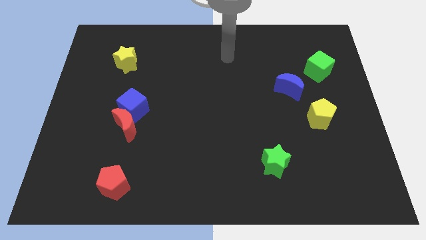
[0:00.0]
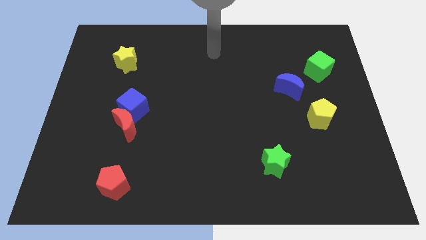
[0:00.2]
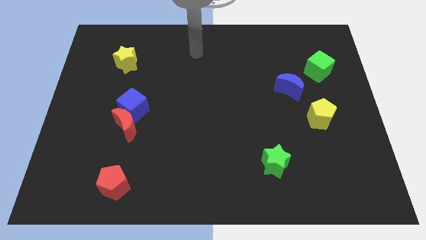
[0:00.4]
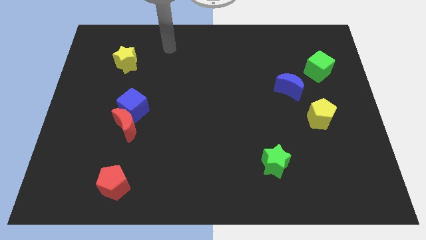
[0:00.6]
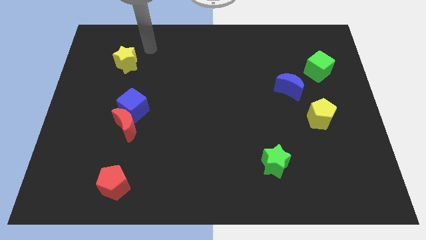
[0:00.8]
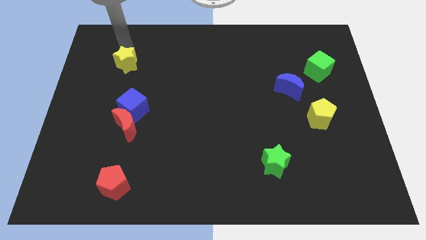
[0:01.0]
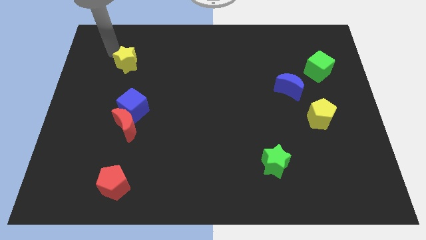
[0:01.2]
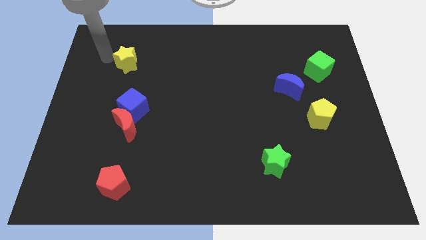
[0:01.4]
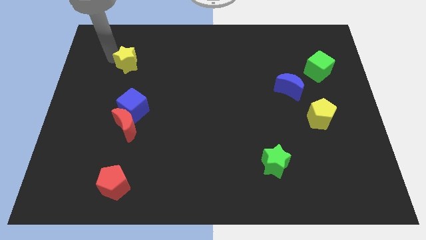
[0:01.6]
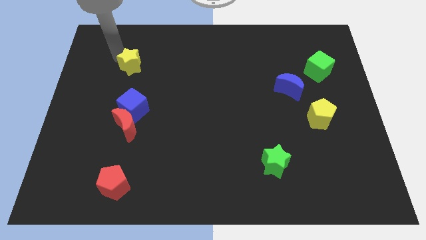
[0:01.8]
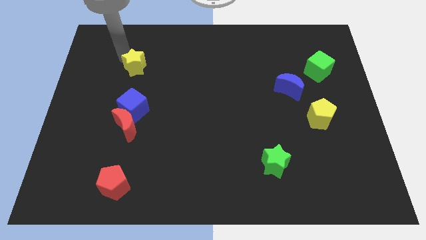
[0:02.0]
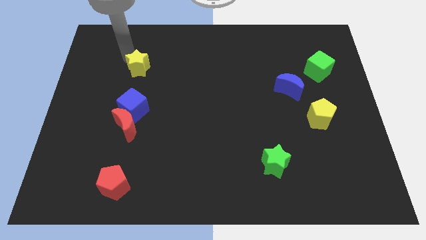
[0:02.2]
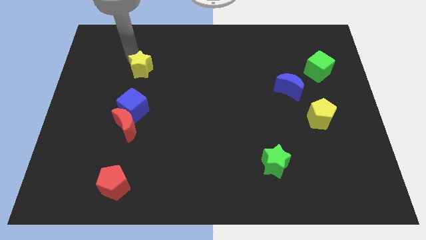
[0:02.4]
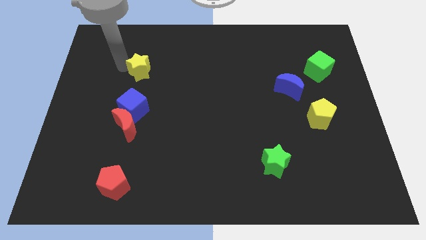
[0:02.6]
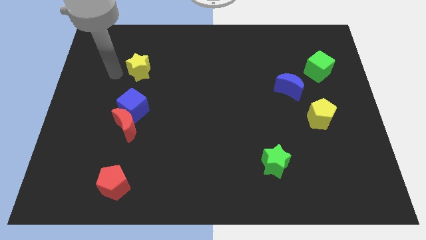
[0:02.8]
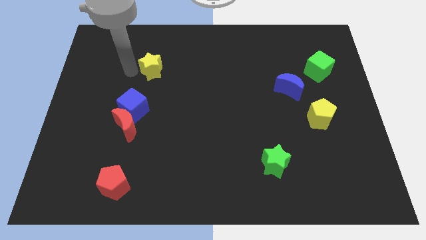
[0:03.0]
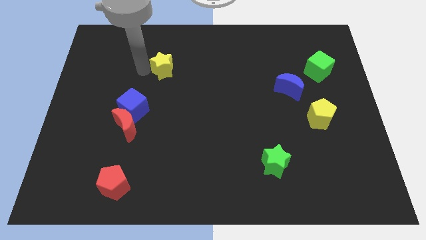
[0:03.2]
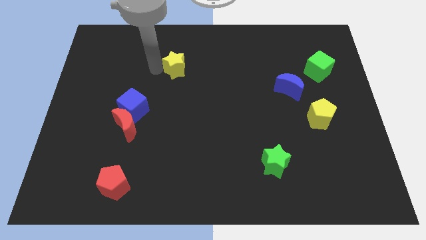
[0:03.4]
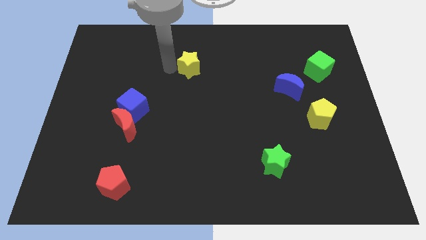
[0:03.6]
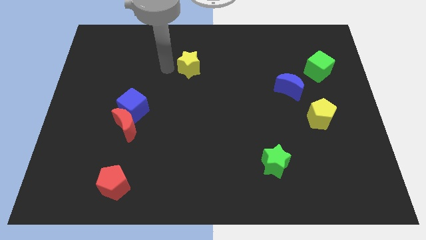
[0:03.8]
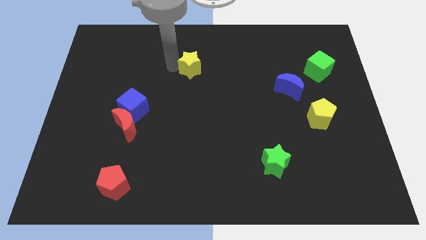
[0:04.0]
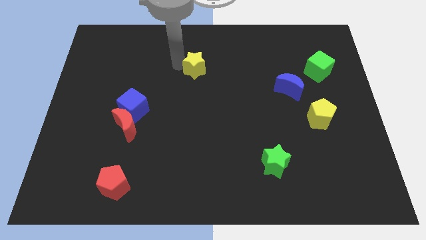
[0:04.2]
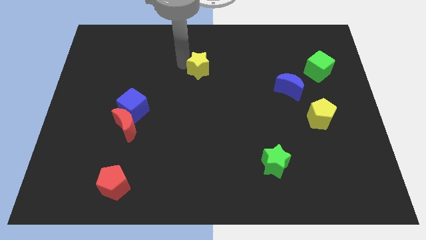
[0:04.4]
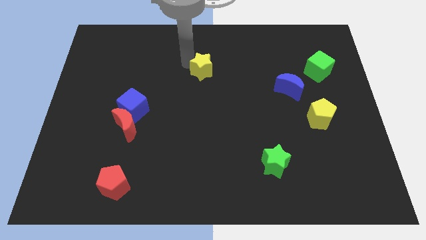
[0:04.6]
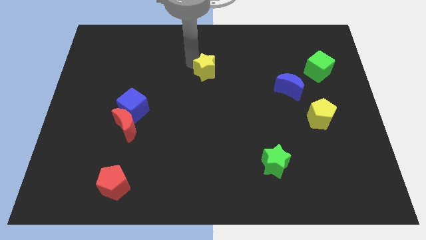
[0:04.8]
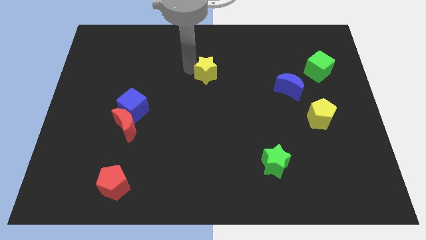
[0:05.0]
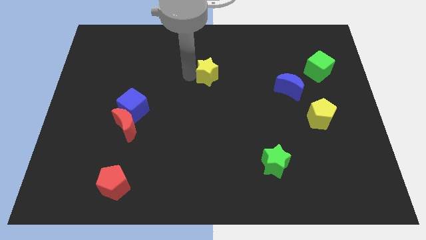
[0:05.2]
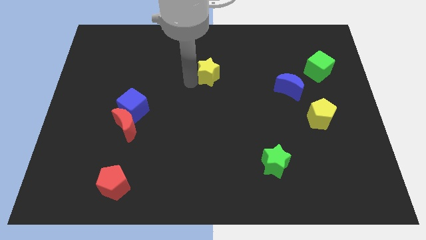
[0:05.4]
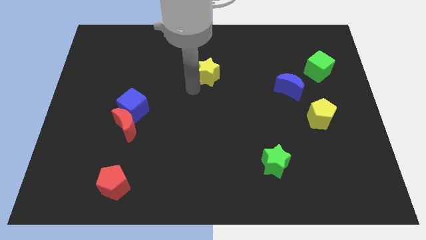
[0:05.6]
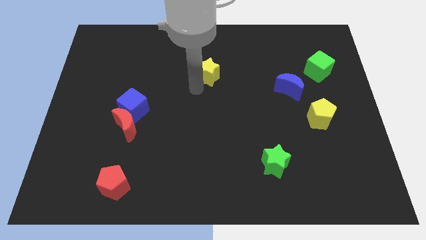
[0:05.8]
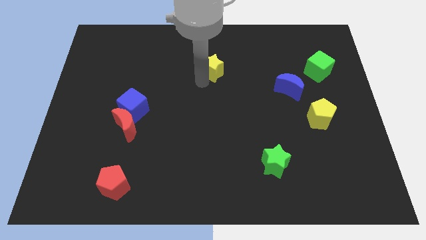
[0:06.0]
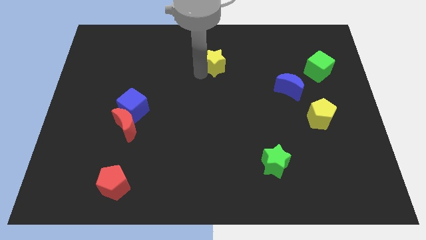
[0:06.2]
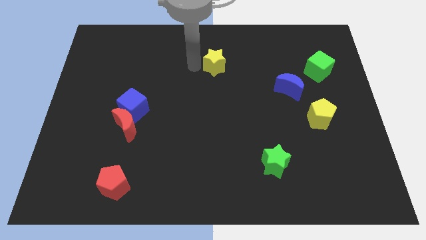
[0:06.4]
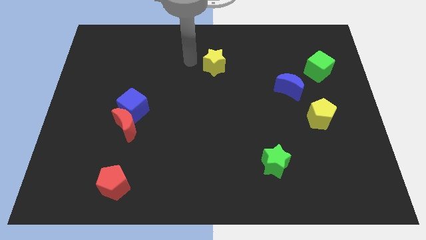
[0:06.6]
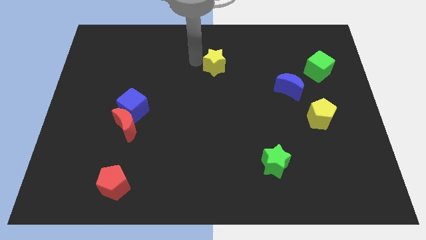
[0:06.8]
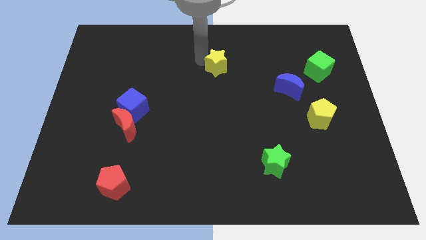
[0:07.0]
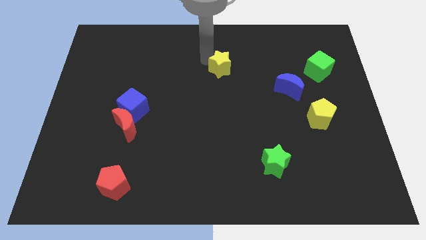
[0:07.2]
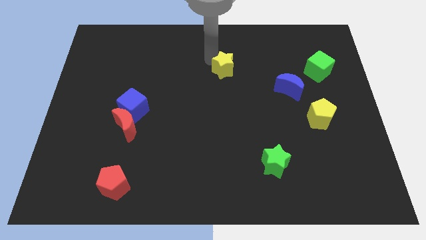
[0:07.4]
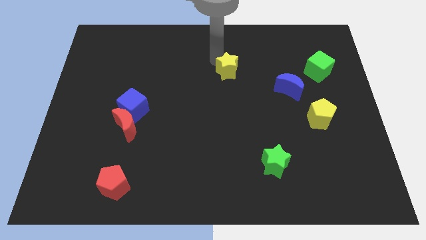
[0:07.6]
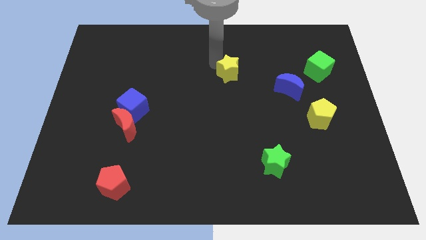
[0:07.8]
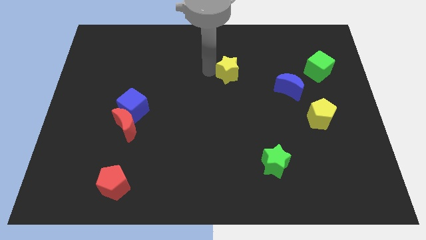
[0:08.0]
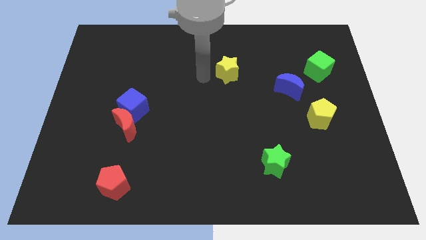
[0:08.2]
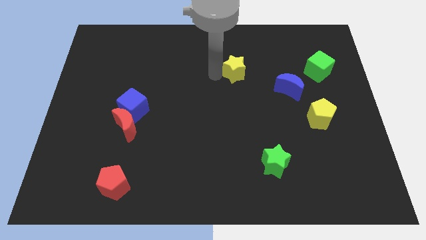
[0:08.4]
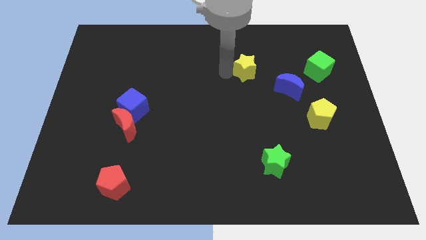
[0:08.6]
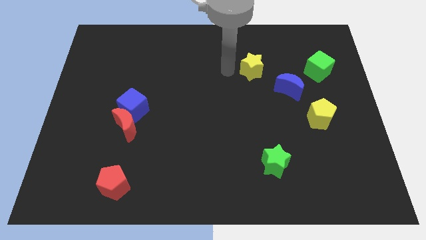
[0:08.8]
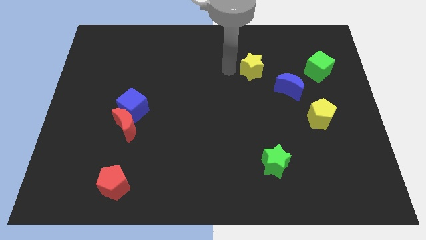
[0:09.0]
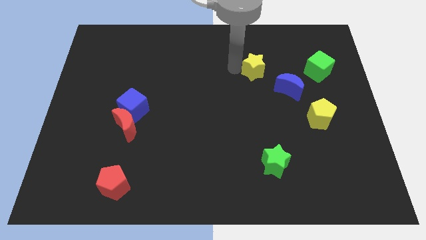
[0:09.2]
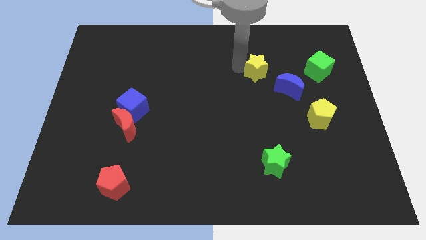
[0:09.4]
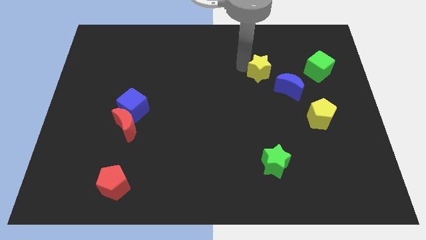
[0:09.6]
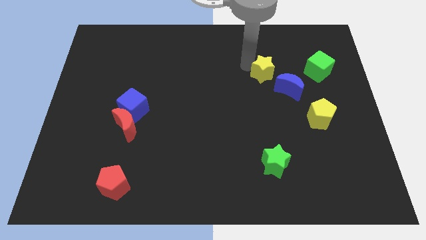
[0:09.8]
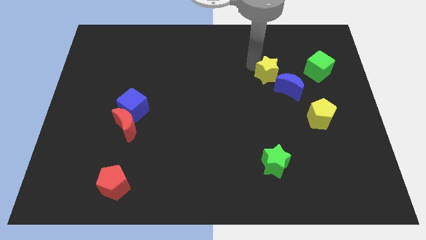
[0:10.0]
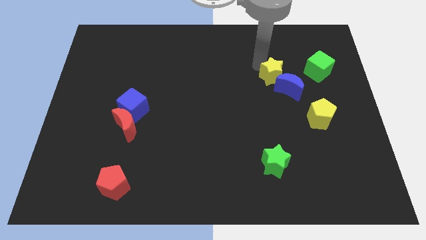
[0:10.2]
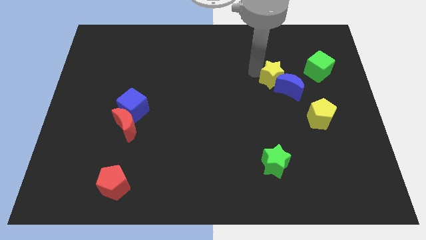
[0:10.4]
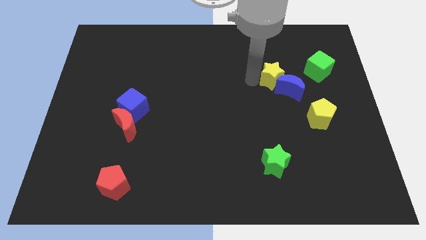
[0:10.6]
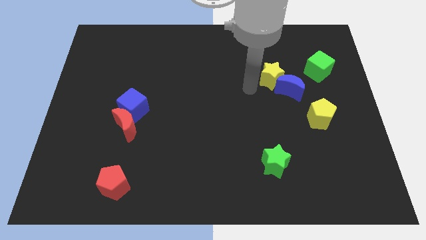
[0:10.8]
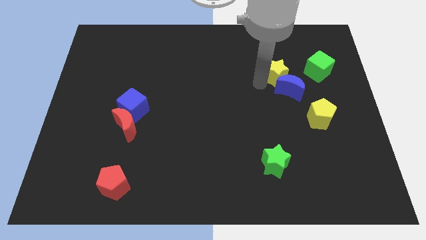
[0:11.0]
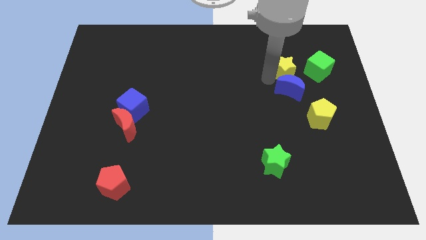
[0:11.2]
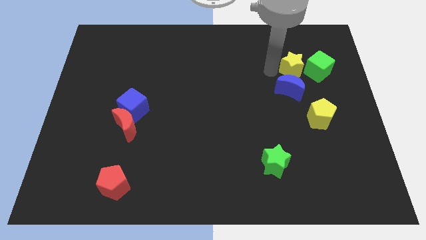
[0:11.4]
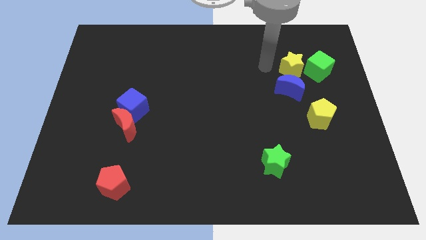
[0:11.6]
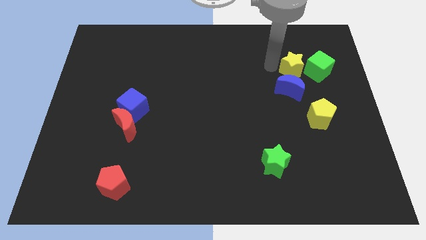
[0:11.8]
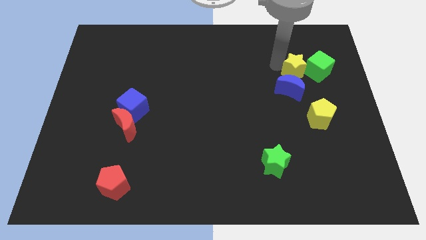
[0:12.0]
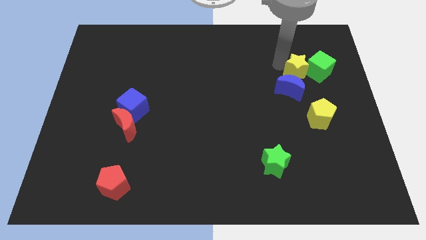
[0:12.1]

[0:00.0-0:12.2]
move the yellow star next to the green cube
